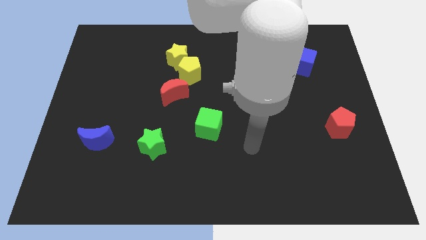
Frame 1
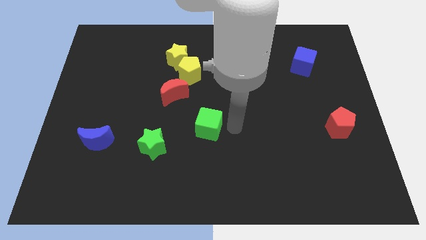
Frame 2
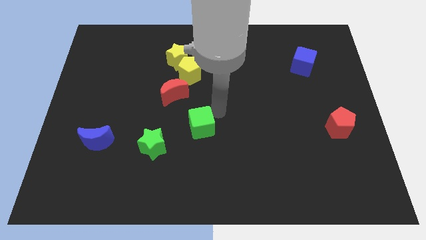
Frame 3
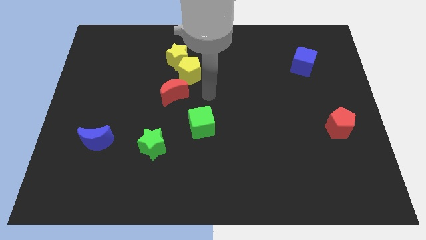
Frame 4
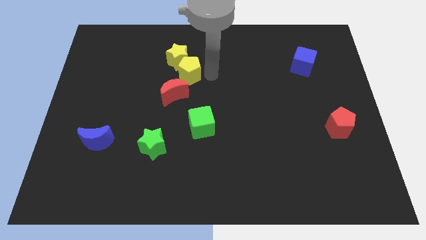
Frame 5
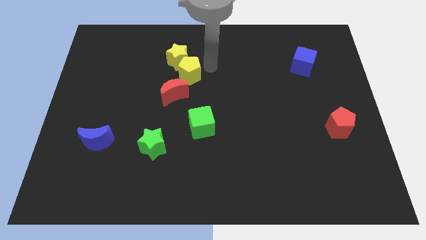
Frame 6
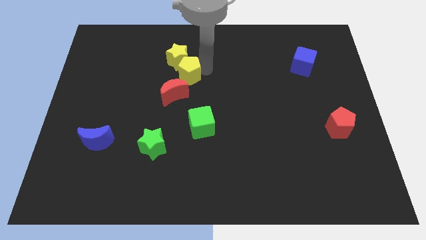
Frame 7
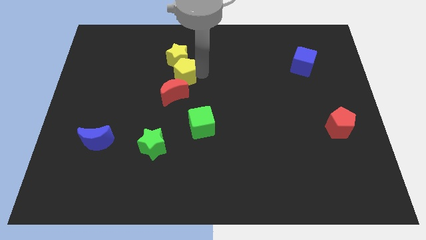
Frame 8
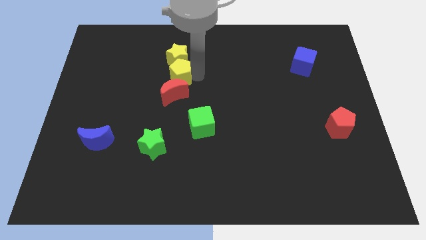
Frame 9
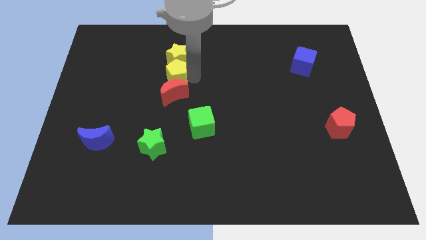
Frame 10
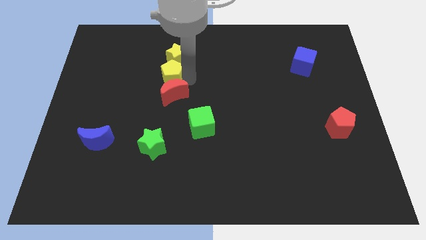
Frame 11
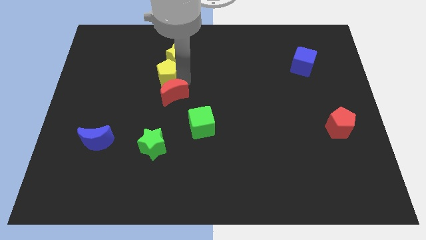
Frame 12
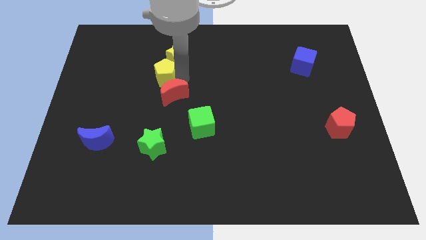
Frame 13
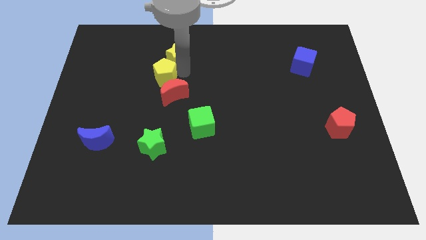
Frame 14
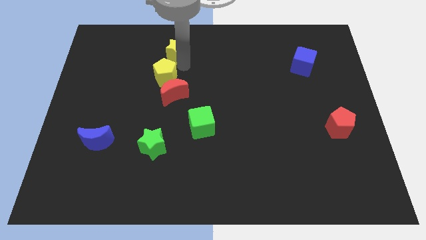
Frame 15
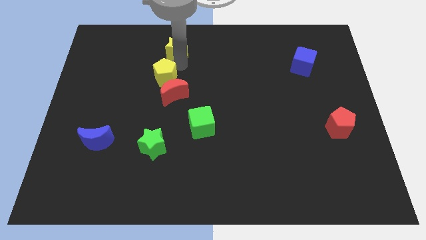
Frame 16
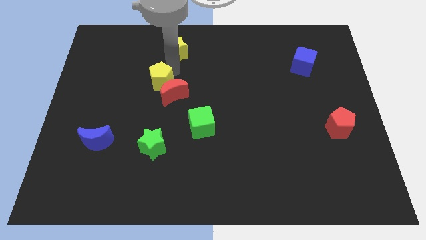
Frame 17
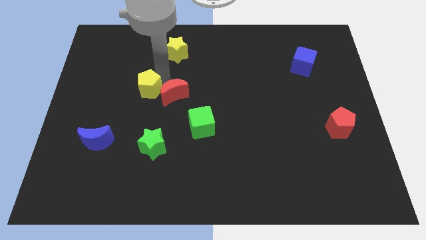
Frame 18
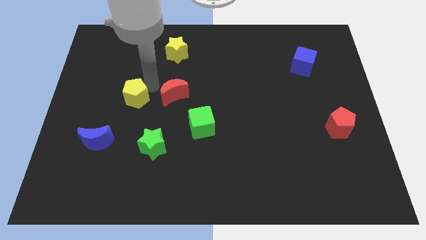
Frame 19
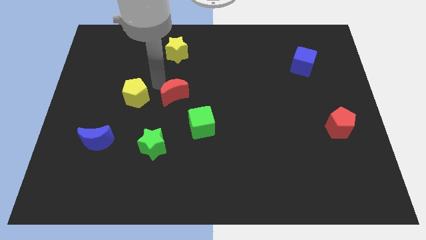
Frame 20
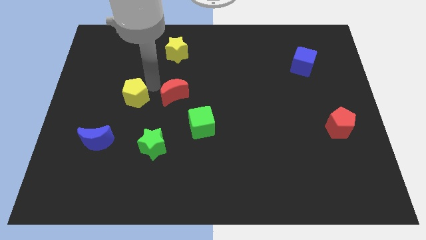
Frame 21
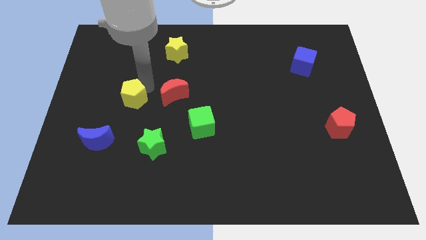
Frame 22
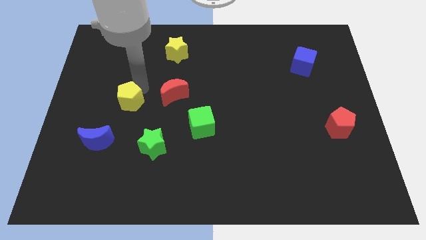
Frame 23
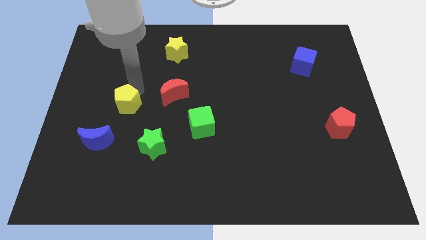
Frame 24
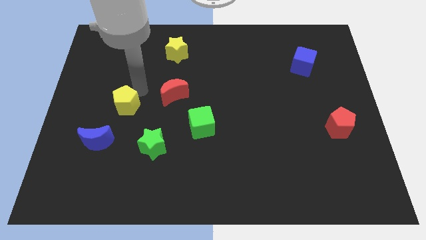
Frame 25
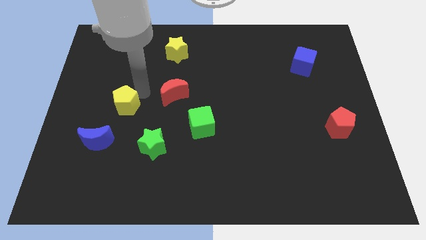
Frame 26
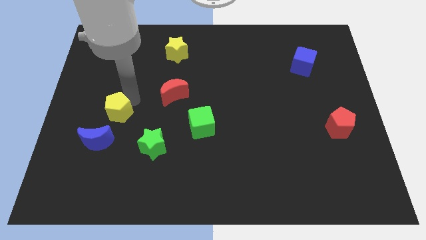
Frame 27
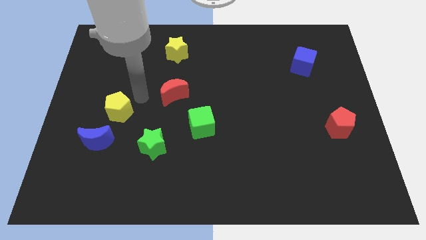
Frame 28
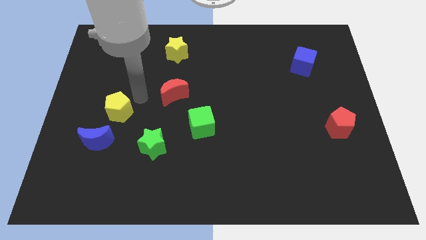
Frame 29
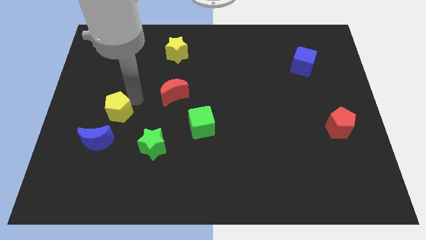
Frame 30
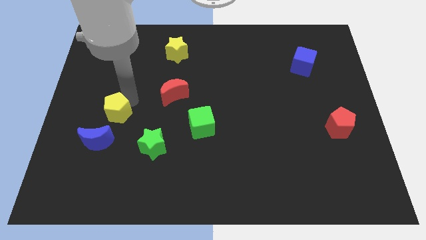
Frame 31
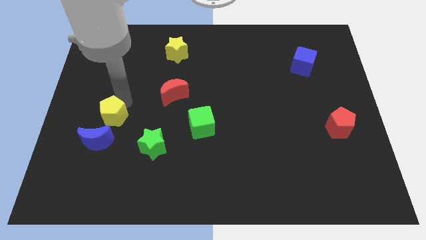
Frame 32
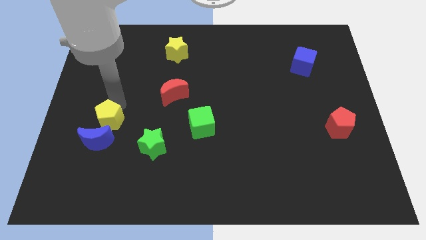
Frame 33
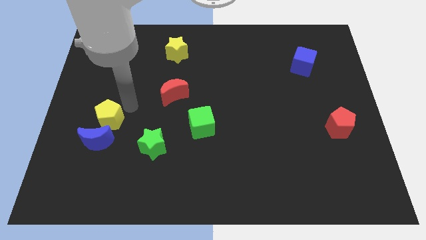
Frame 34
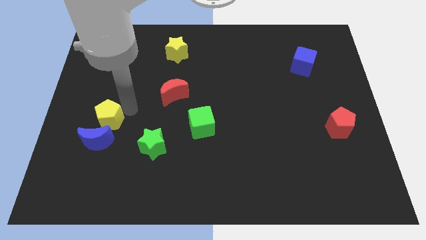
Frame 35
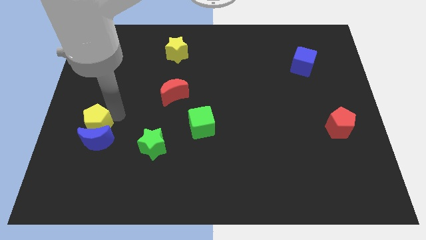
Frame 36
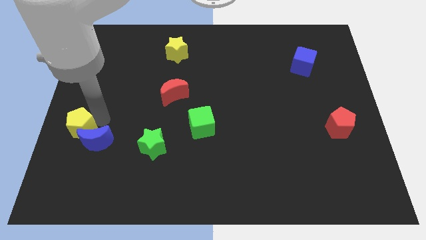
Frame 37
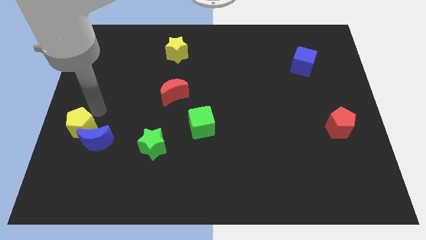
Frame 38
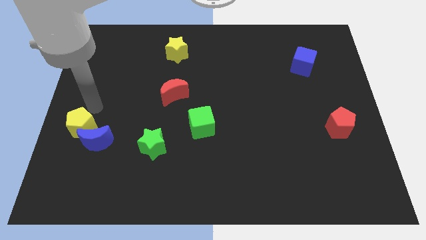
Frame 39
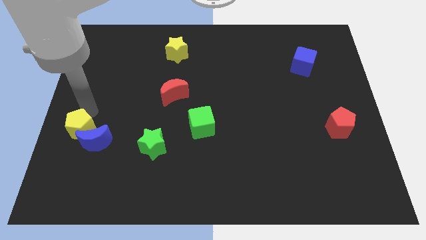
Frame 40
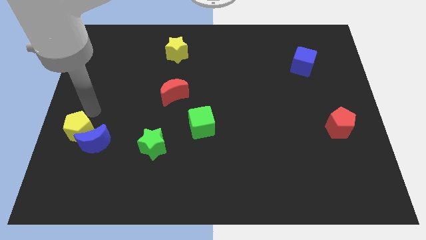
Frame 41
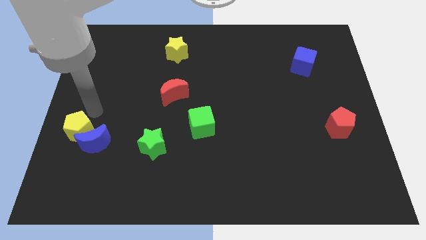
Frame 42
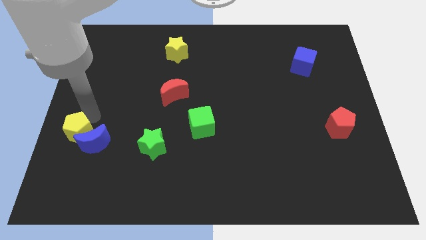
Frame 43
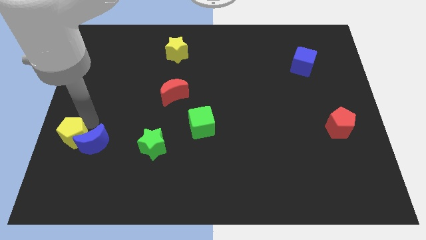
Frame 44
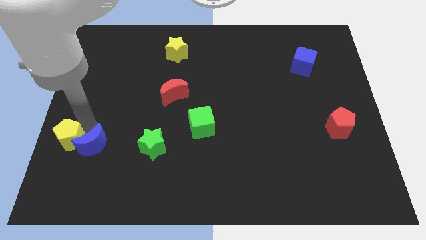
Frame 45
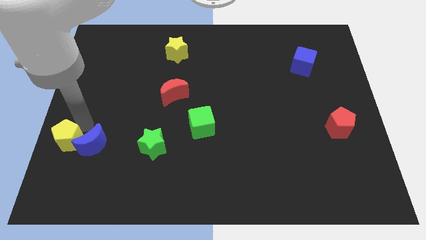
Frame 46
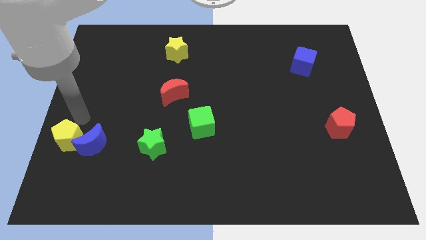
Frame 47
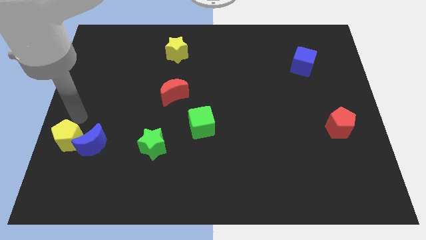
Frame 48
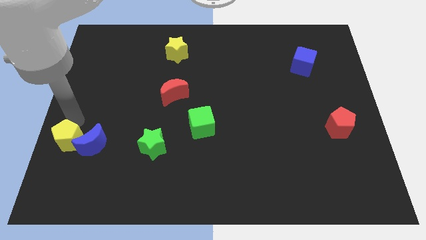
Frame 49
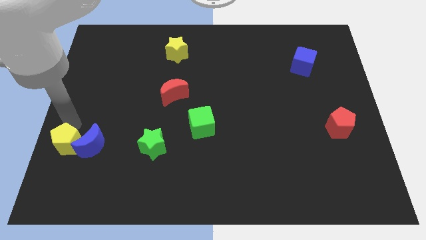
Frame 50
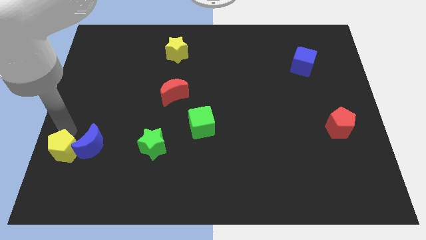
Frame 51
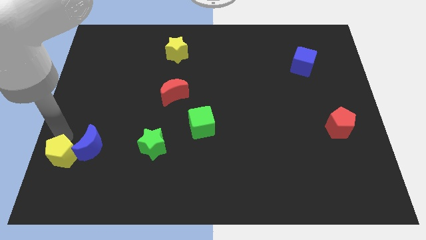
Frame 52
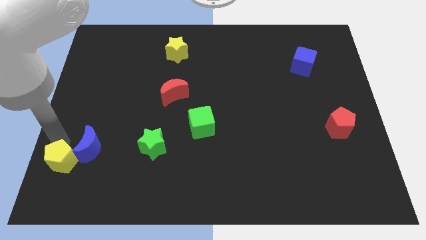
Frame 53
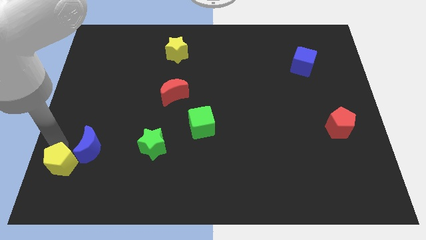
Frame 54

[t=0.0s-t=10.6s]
slide the yellow pentagon to the bottom left
